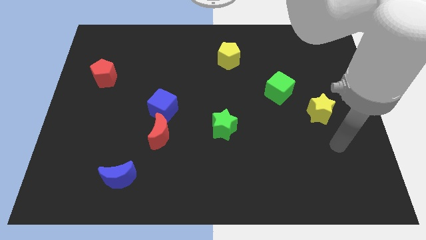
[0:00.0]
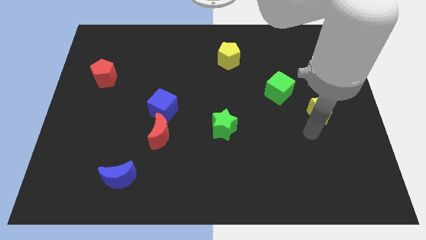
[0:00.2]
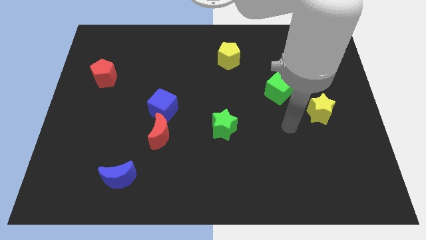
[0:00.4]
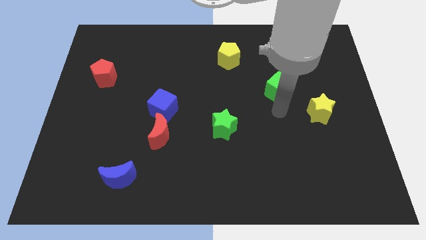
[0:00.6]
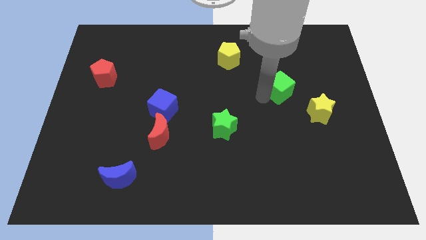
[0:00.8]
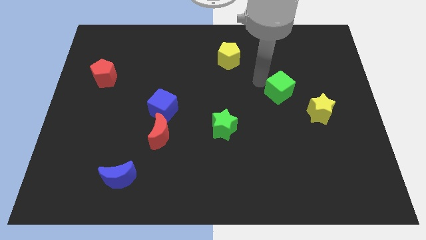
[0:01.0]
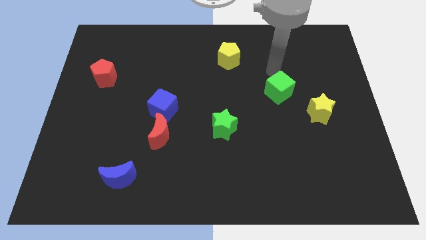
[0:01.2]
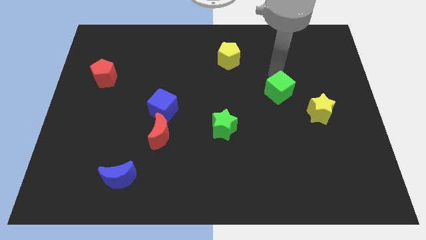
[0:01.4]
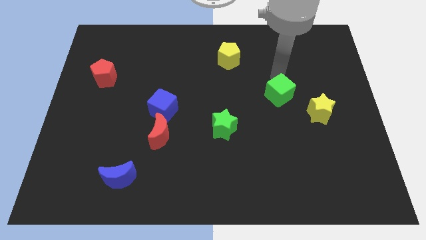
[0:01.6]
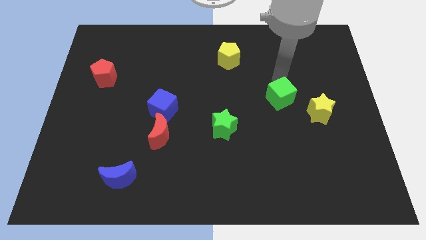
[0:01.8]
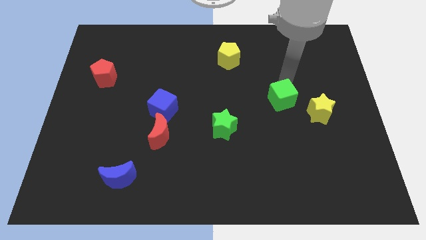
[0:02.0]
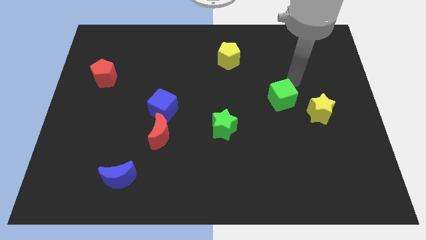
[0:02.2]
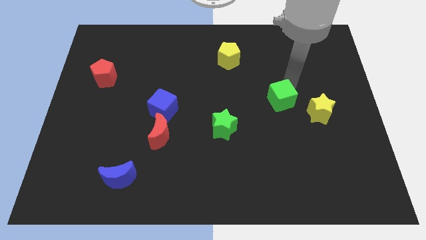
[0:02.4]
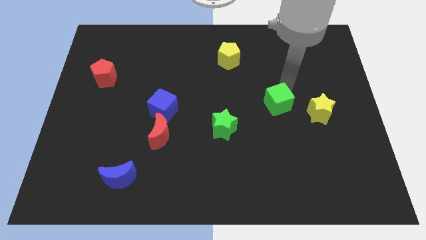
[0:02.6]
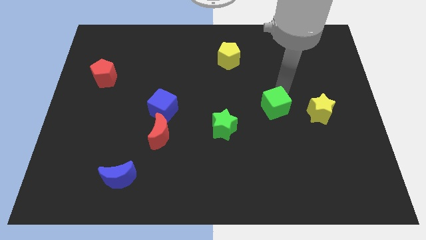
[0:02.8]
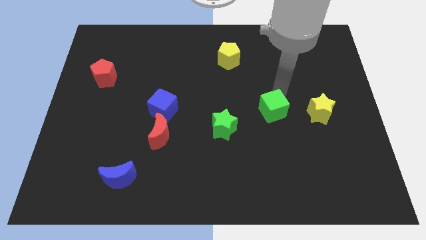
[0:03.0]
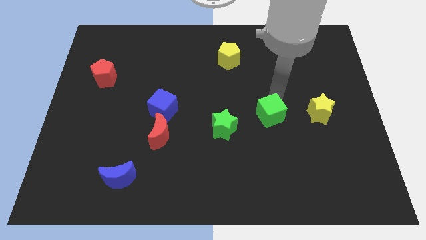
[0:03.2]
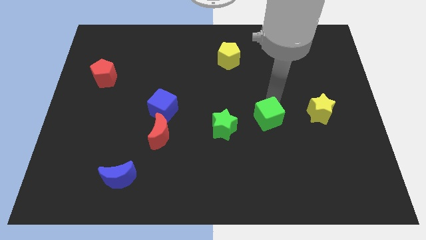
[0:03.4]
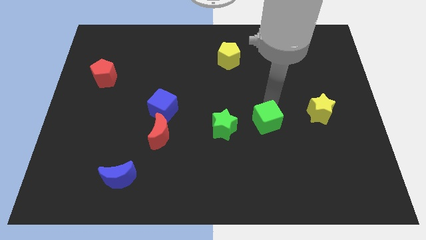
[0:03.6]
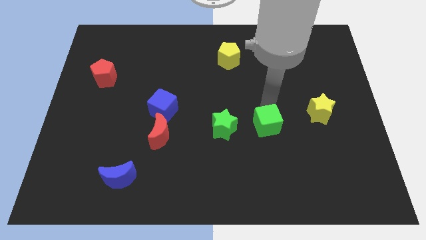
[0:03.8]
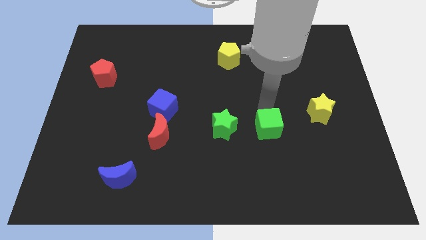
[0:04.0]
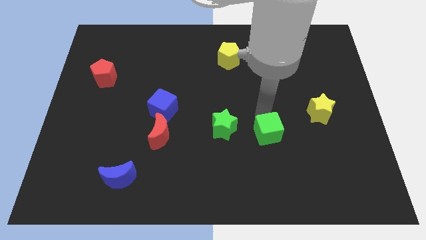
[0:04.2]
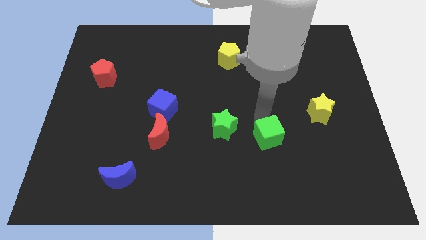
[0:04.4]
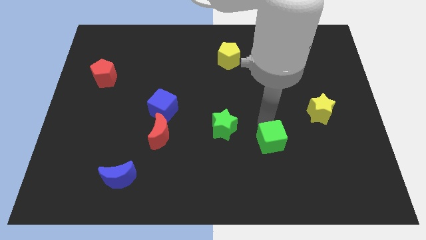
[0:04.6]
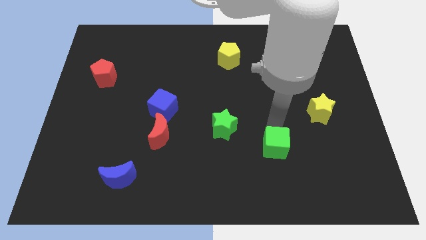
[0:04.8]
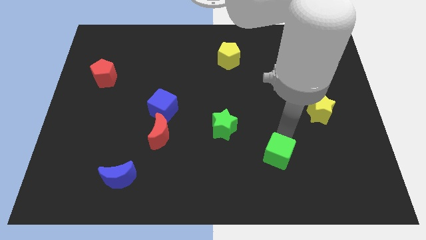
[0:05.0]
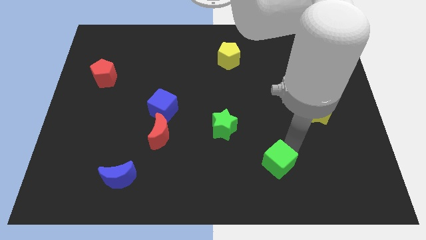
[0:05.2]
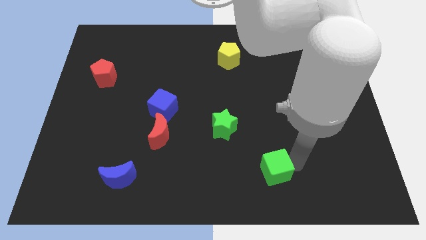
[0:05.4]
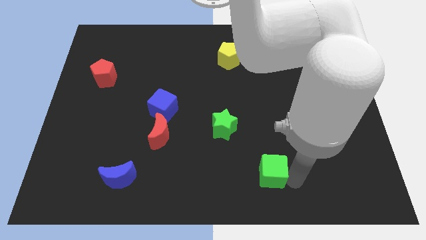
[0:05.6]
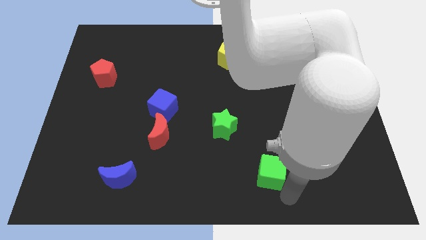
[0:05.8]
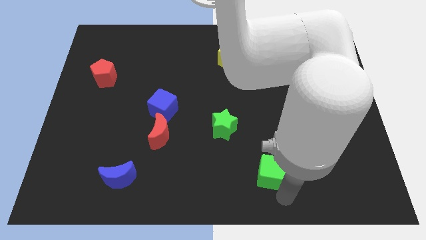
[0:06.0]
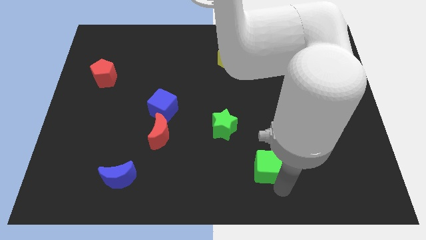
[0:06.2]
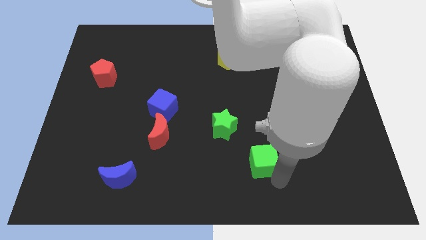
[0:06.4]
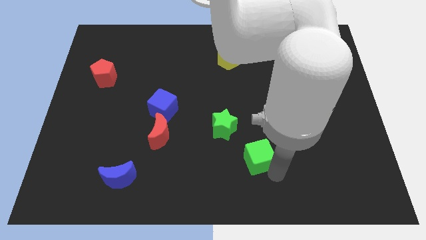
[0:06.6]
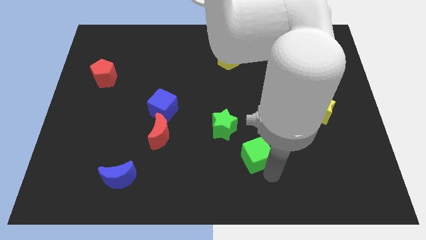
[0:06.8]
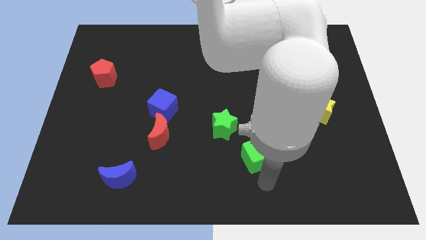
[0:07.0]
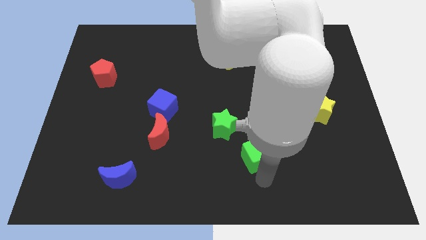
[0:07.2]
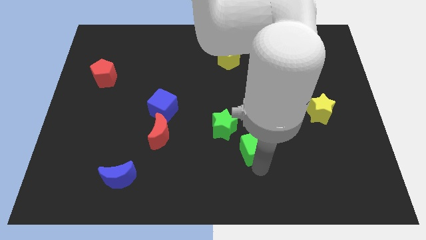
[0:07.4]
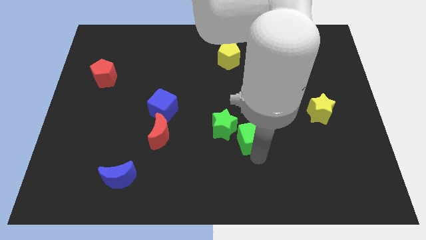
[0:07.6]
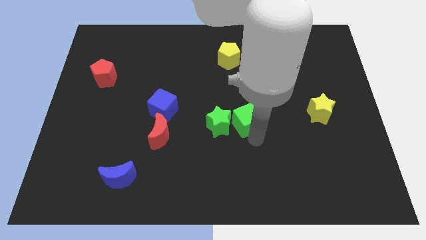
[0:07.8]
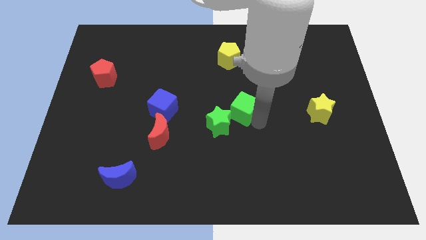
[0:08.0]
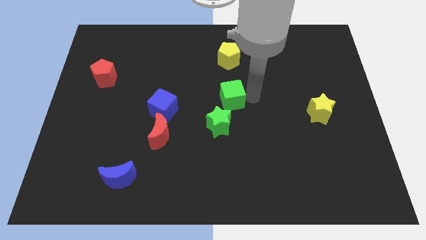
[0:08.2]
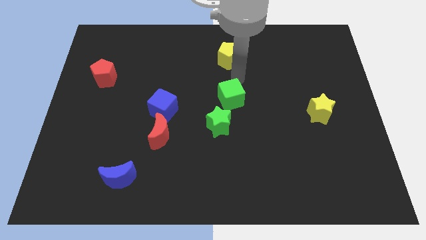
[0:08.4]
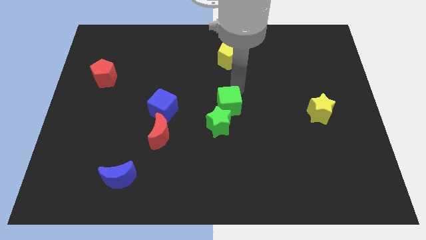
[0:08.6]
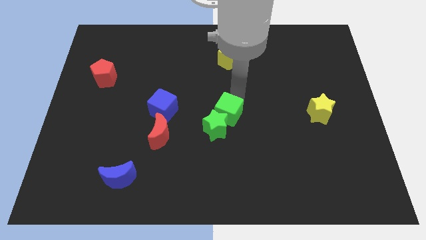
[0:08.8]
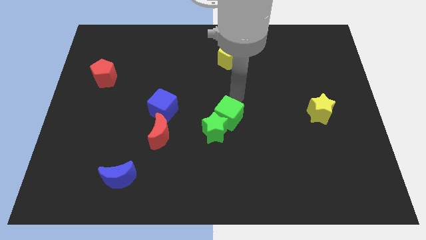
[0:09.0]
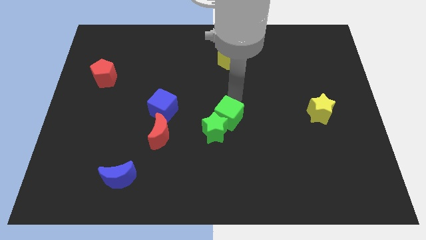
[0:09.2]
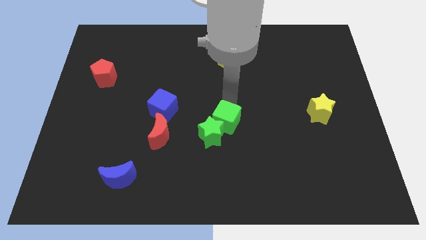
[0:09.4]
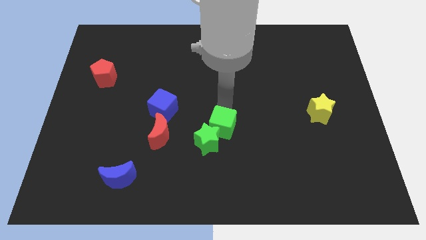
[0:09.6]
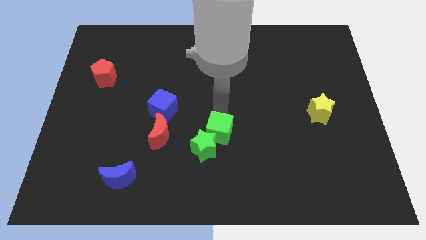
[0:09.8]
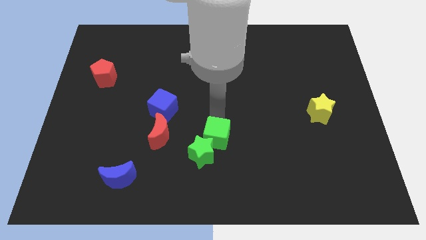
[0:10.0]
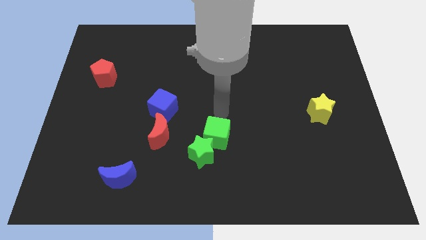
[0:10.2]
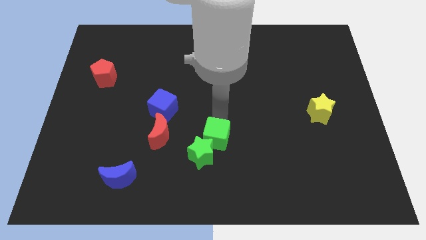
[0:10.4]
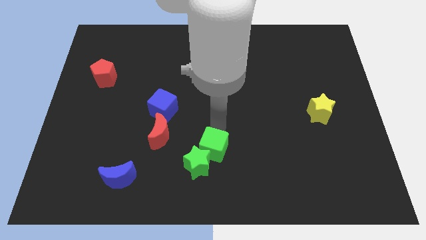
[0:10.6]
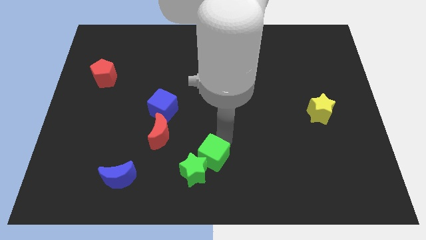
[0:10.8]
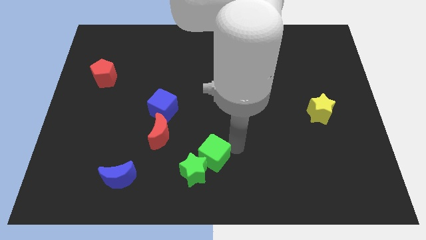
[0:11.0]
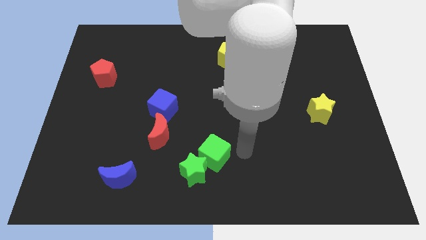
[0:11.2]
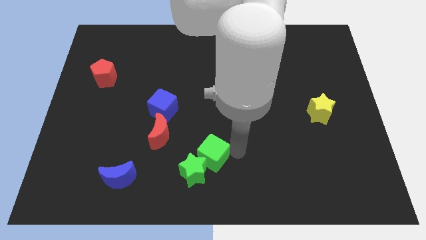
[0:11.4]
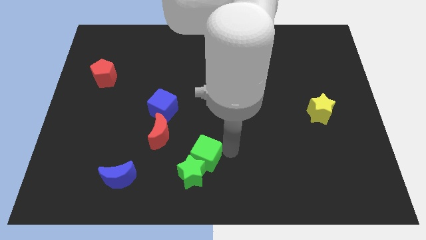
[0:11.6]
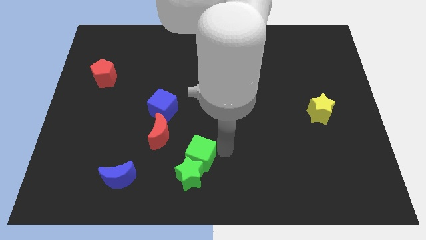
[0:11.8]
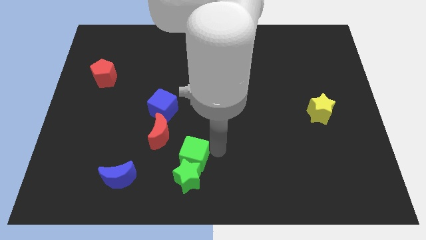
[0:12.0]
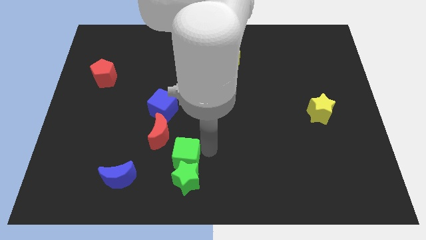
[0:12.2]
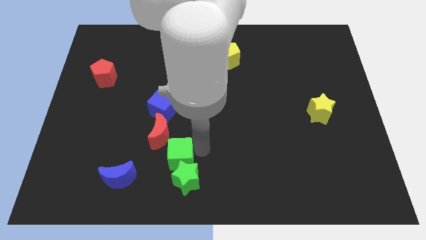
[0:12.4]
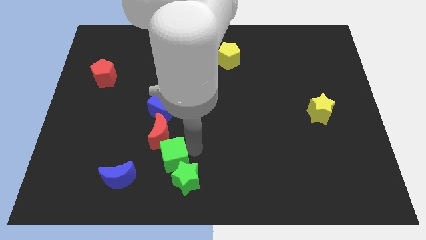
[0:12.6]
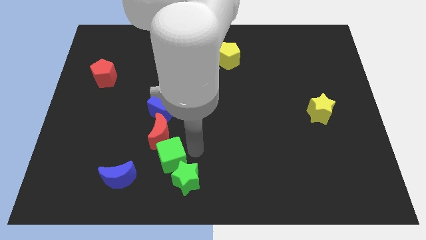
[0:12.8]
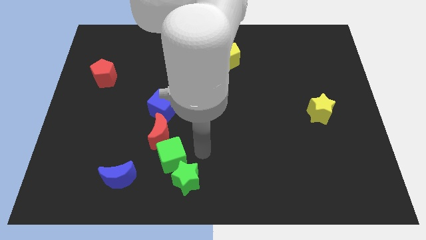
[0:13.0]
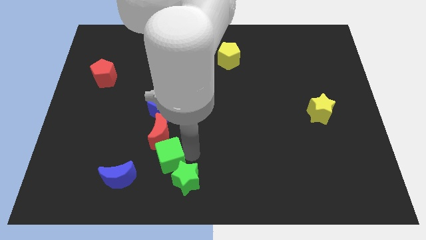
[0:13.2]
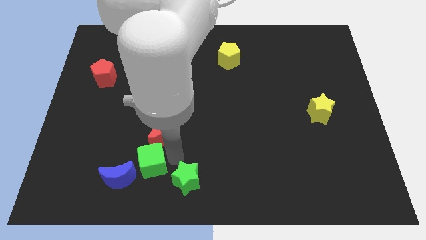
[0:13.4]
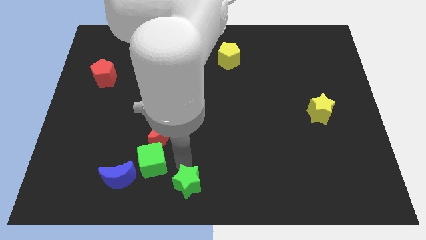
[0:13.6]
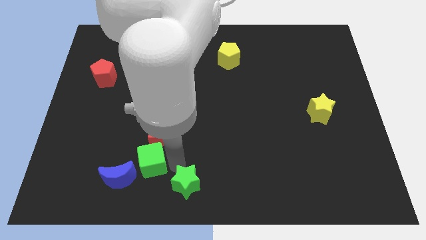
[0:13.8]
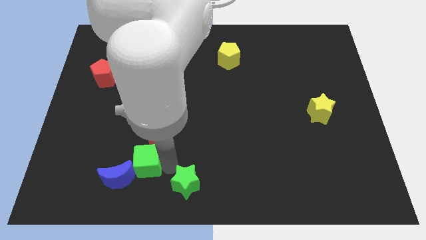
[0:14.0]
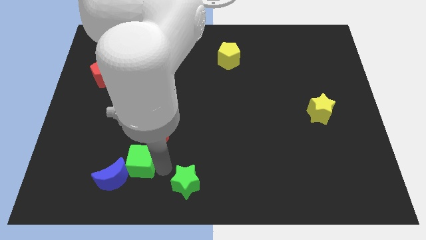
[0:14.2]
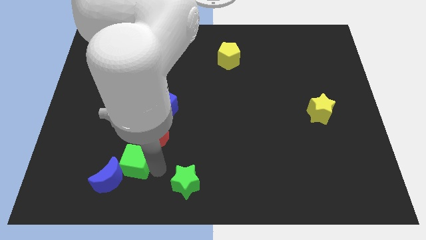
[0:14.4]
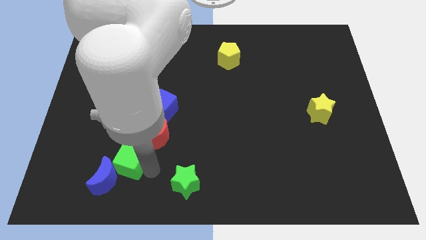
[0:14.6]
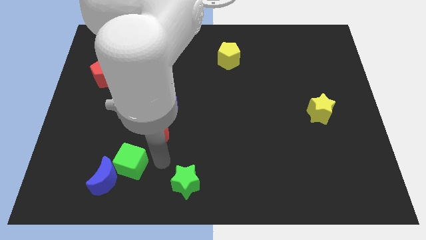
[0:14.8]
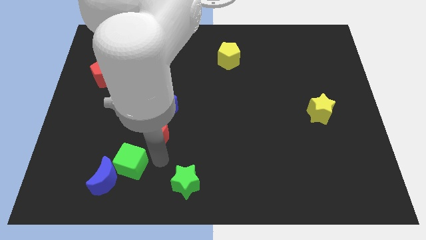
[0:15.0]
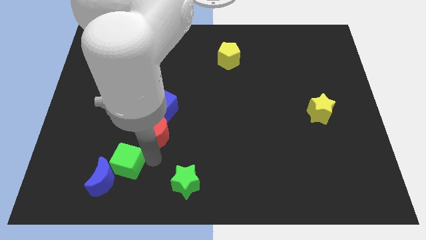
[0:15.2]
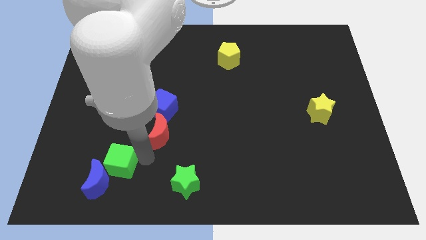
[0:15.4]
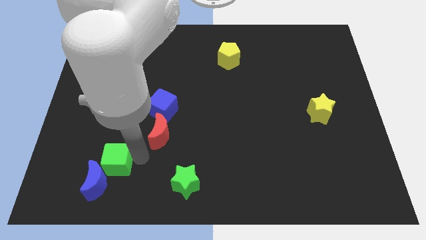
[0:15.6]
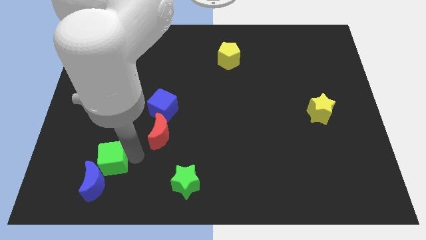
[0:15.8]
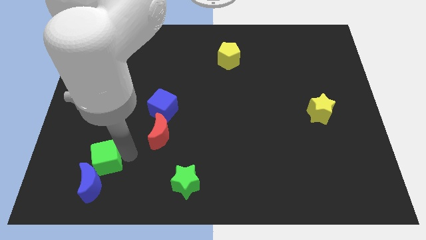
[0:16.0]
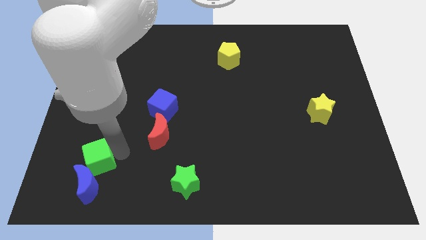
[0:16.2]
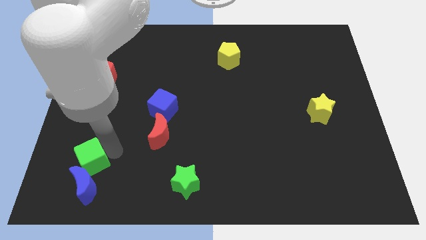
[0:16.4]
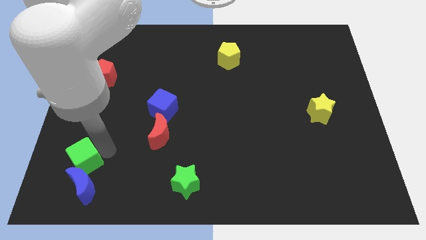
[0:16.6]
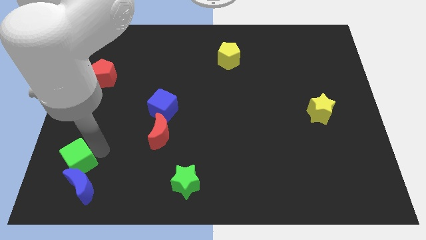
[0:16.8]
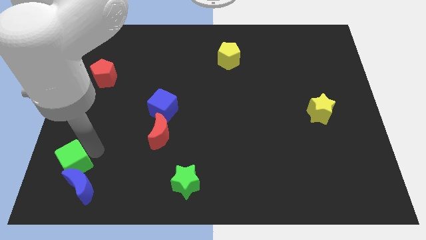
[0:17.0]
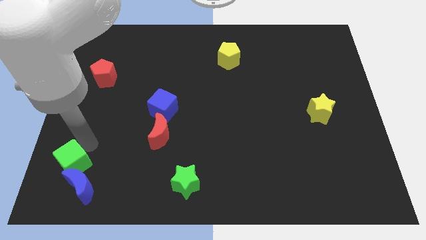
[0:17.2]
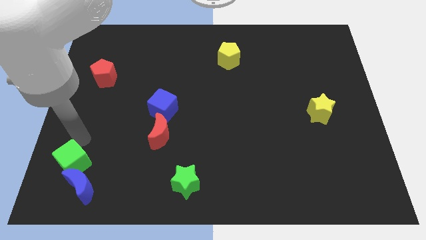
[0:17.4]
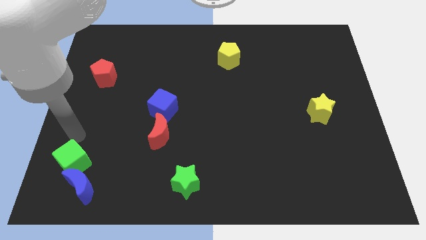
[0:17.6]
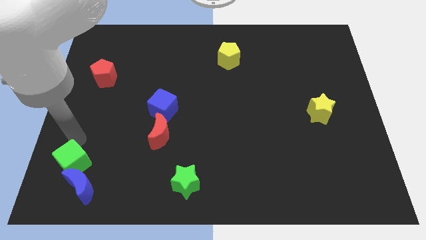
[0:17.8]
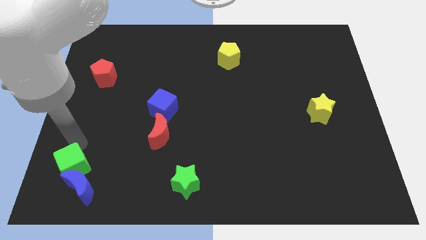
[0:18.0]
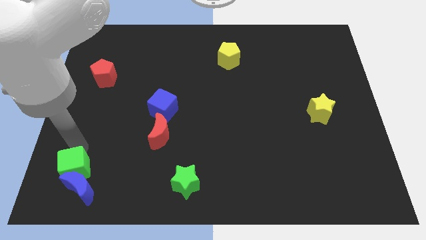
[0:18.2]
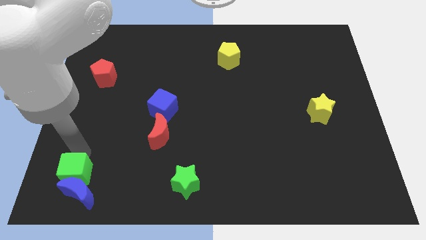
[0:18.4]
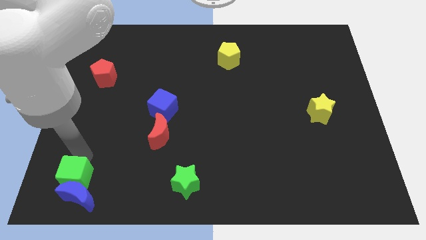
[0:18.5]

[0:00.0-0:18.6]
put the green cube to the bottom left of the board
